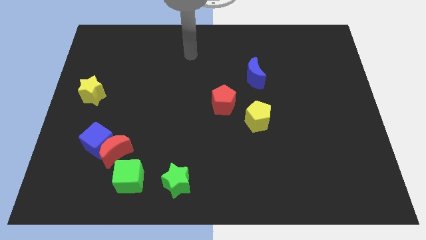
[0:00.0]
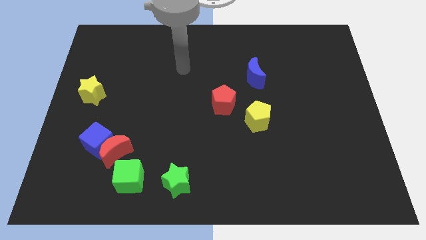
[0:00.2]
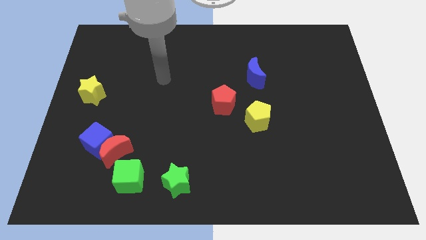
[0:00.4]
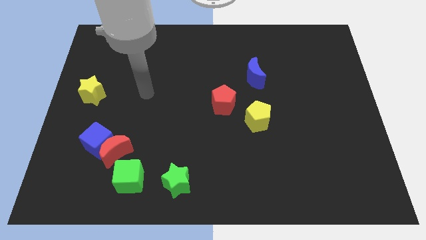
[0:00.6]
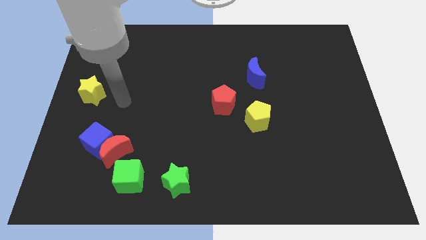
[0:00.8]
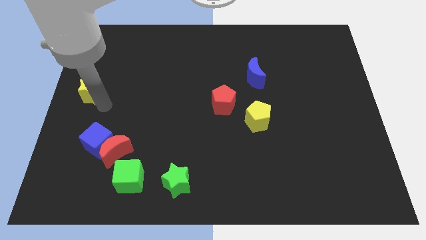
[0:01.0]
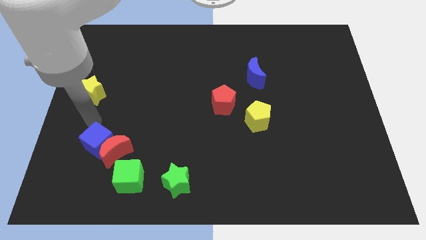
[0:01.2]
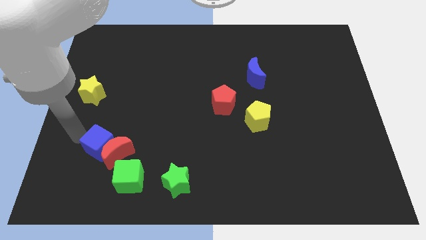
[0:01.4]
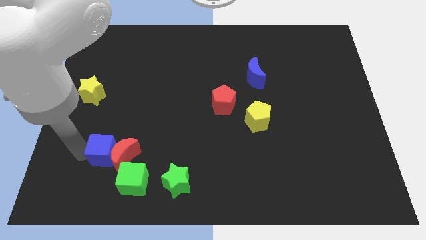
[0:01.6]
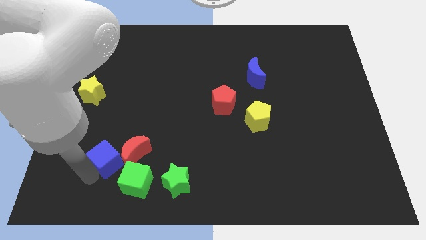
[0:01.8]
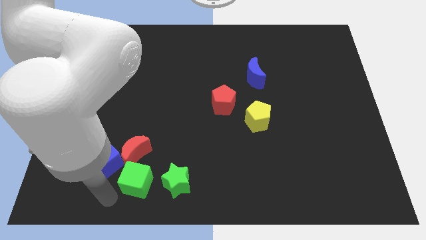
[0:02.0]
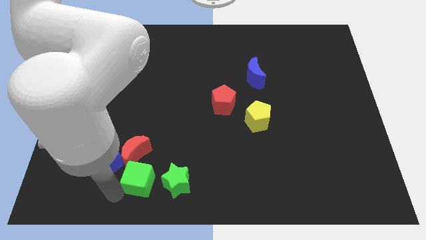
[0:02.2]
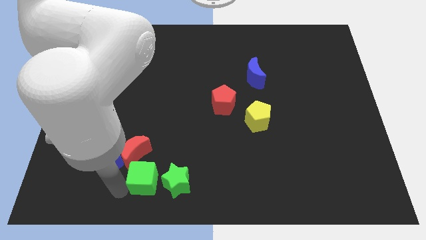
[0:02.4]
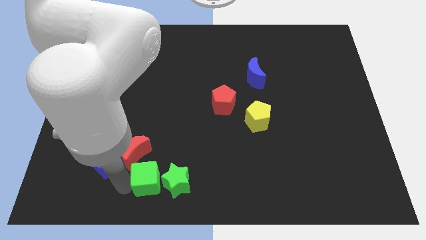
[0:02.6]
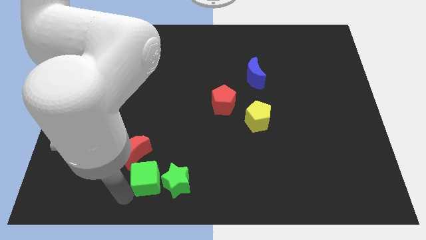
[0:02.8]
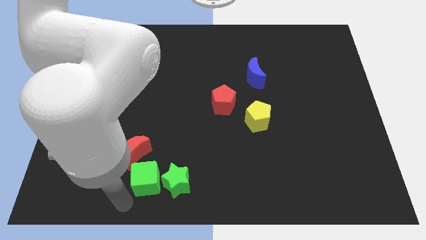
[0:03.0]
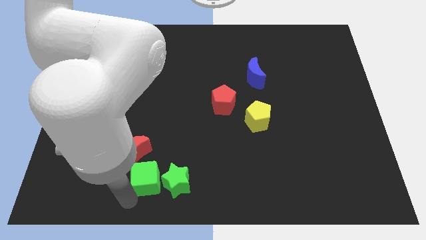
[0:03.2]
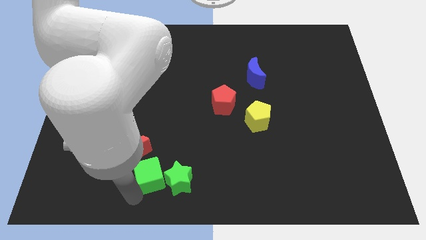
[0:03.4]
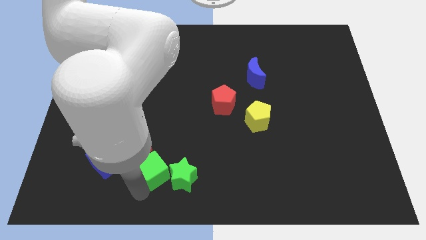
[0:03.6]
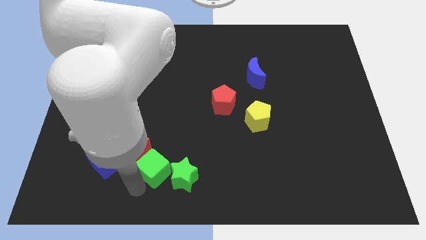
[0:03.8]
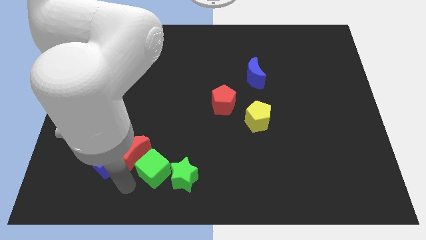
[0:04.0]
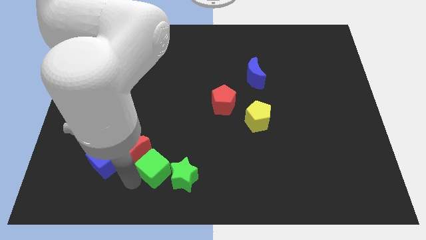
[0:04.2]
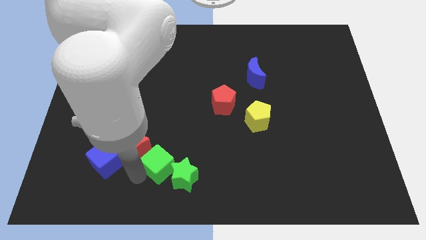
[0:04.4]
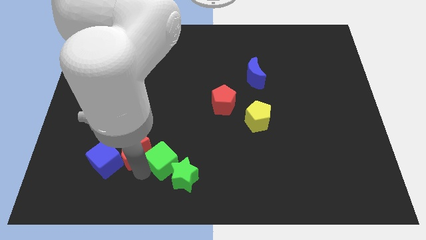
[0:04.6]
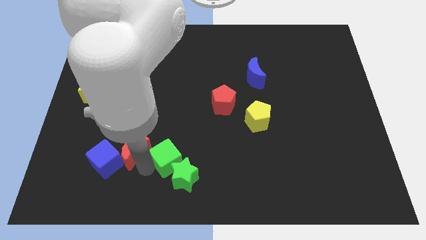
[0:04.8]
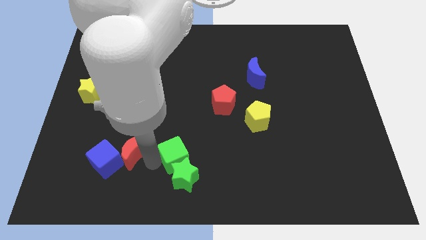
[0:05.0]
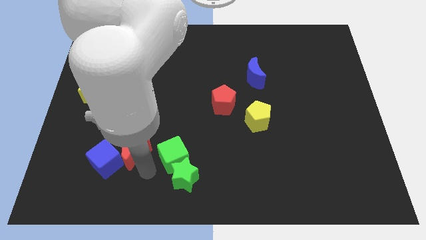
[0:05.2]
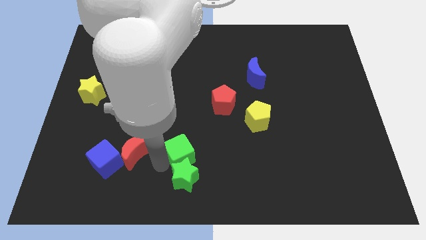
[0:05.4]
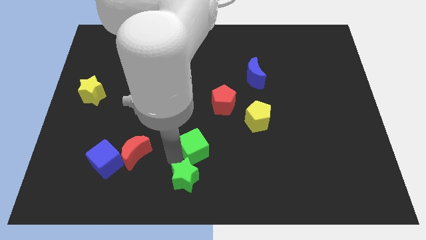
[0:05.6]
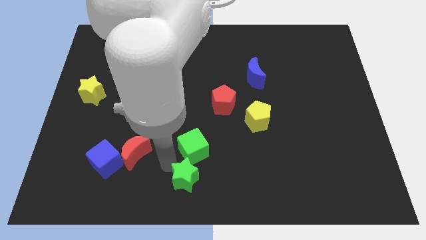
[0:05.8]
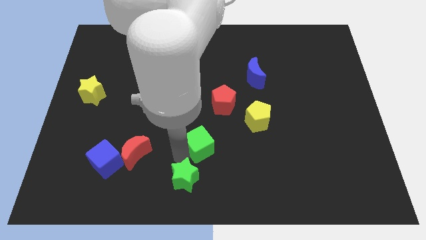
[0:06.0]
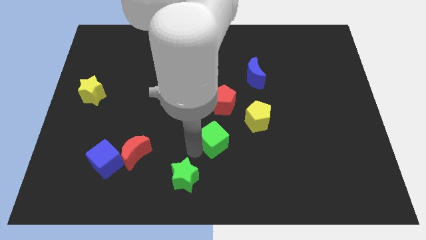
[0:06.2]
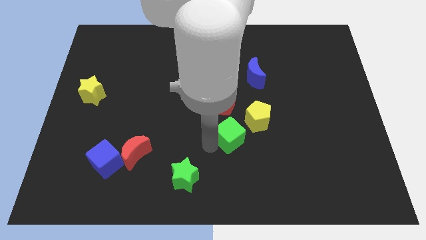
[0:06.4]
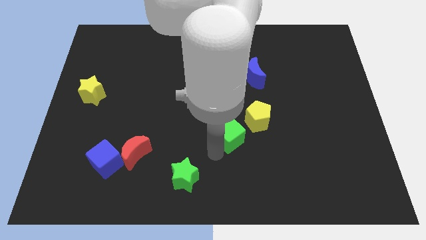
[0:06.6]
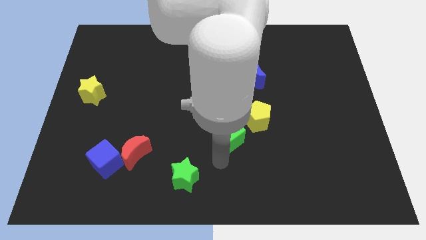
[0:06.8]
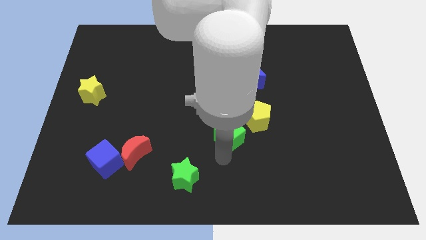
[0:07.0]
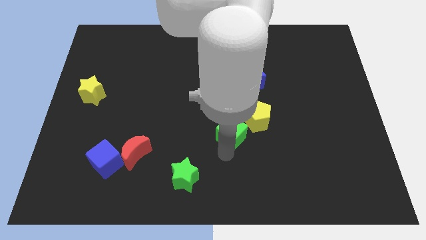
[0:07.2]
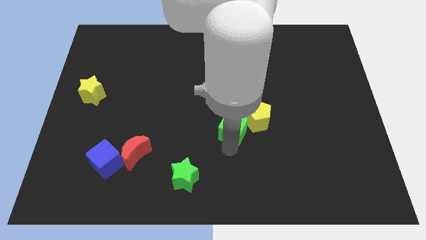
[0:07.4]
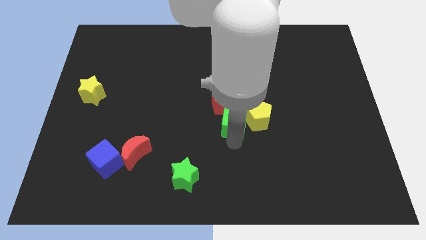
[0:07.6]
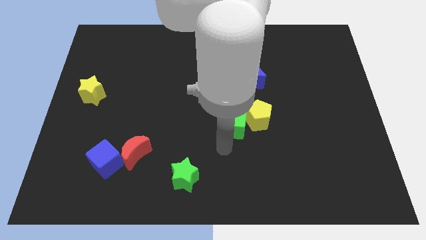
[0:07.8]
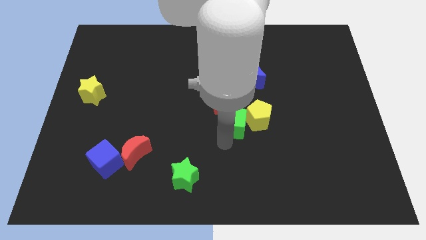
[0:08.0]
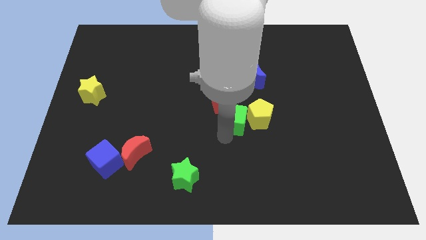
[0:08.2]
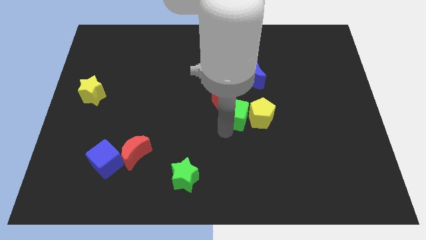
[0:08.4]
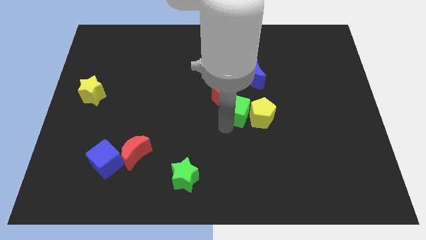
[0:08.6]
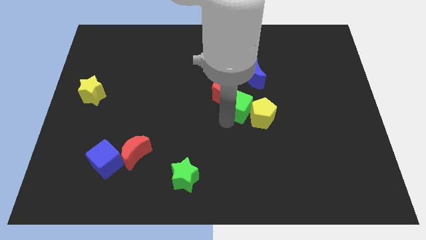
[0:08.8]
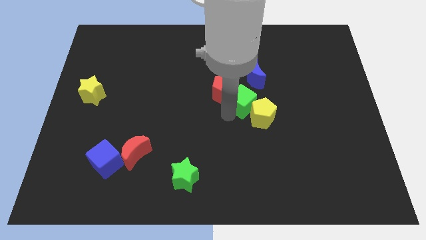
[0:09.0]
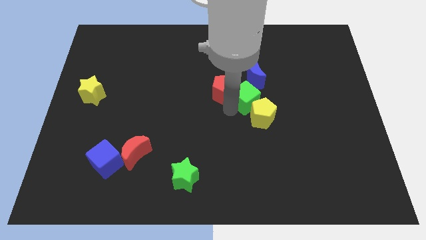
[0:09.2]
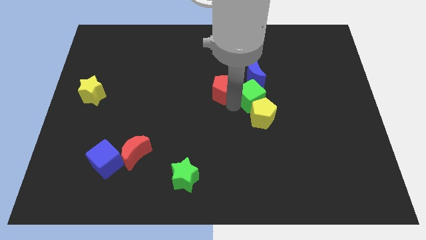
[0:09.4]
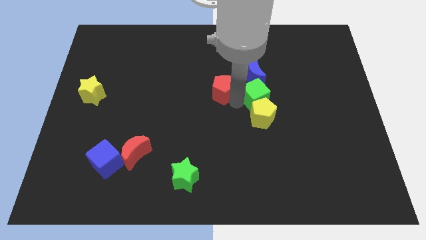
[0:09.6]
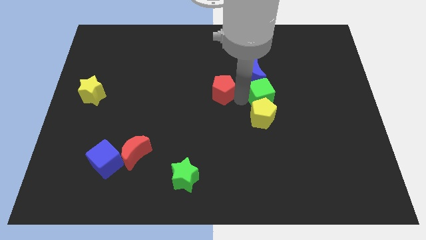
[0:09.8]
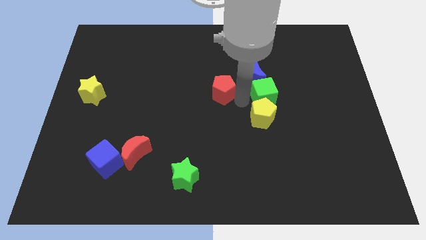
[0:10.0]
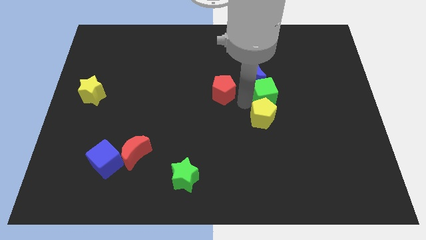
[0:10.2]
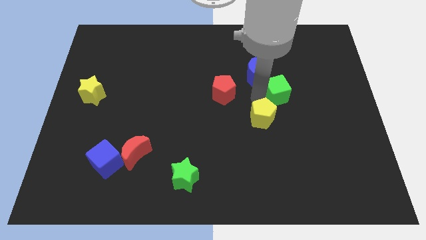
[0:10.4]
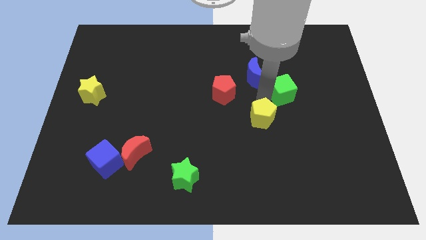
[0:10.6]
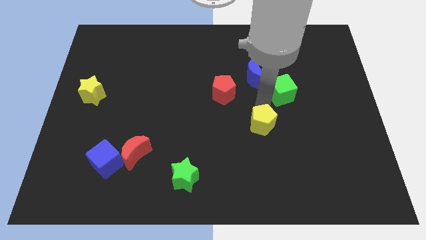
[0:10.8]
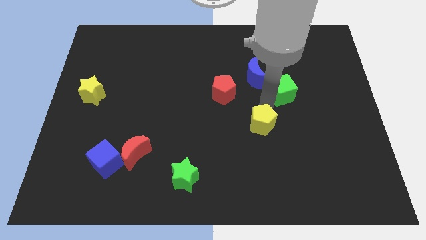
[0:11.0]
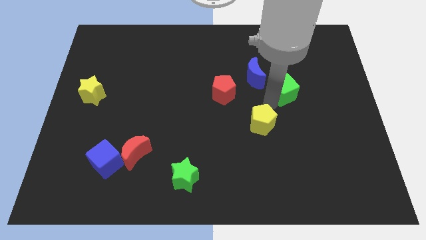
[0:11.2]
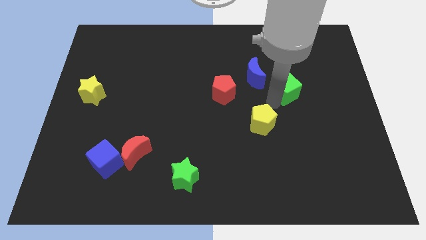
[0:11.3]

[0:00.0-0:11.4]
put the green cube just right of the blue moon

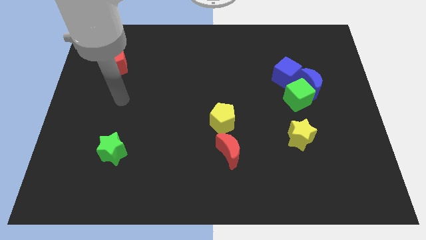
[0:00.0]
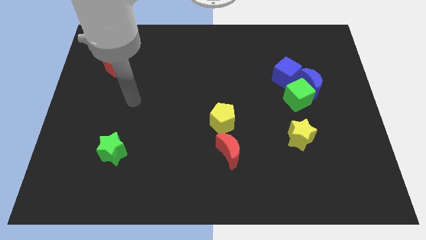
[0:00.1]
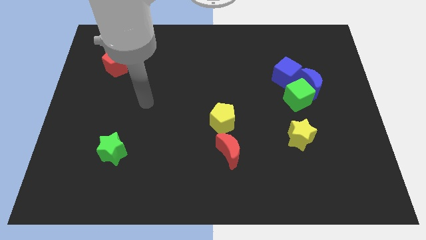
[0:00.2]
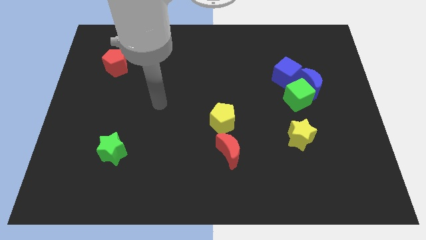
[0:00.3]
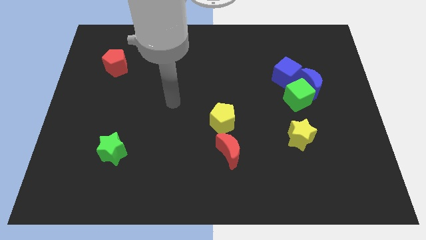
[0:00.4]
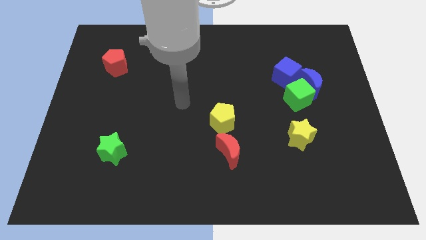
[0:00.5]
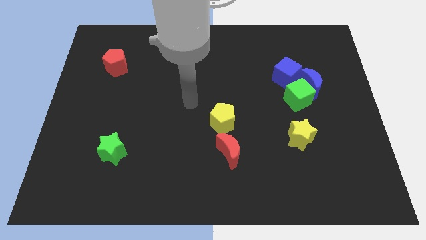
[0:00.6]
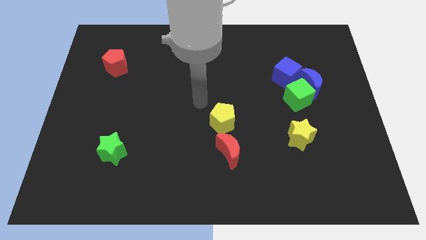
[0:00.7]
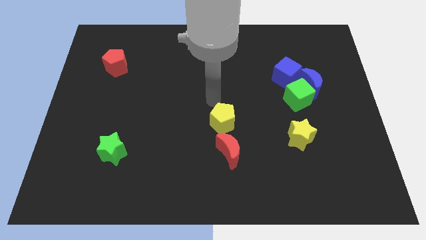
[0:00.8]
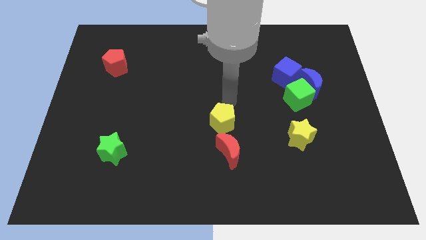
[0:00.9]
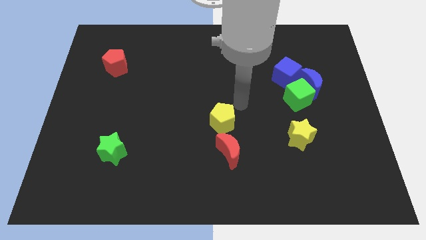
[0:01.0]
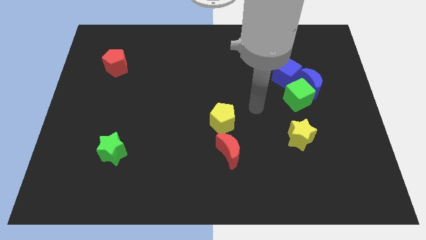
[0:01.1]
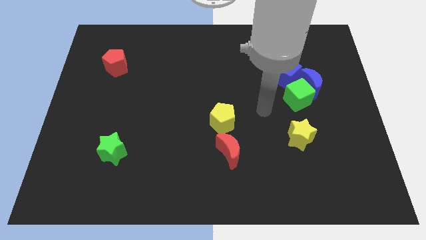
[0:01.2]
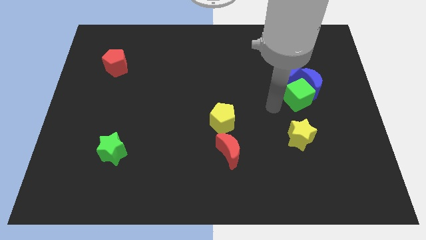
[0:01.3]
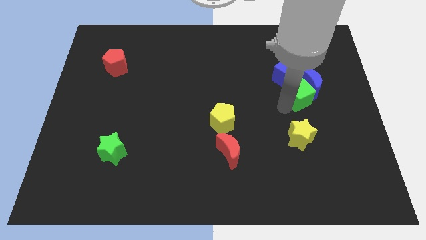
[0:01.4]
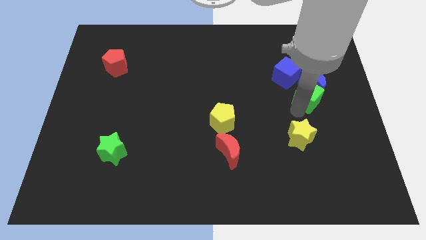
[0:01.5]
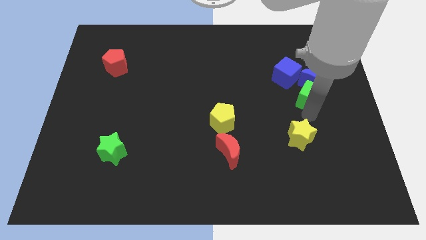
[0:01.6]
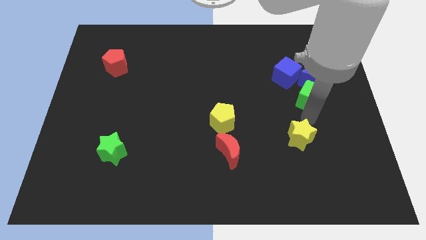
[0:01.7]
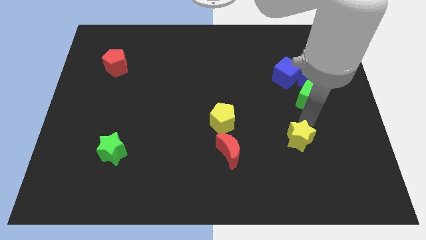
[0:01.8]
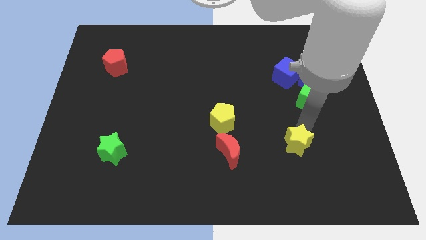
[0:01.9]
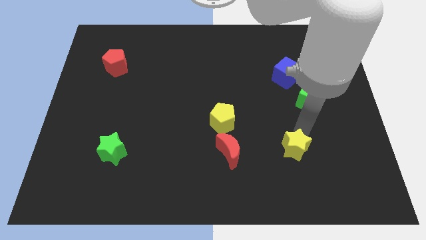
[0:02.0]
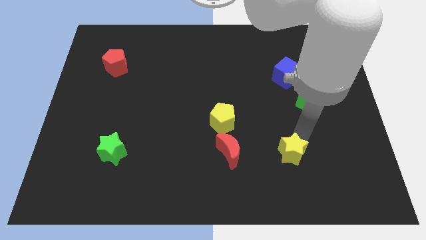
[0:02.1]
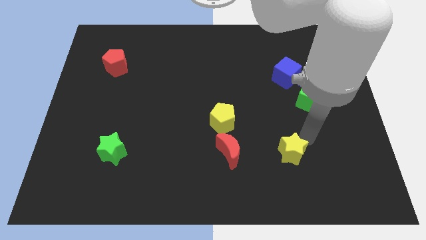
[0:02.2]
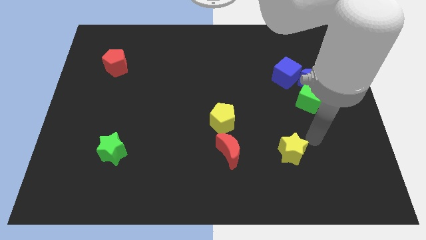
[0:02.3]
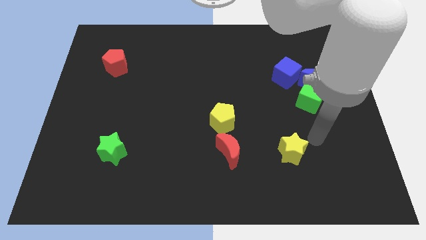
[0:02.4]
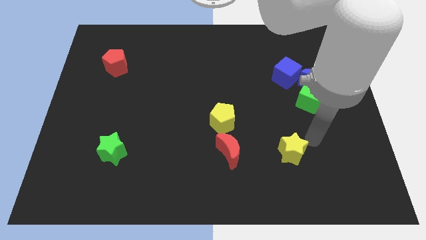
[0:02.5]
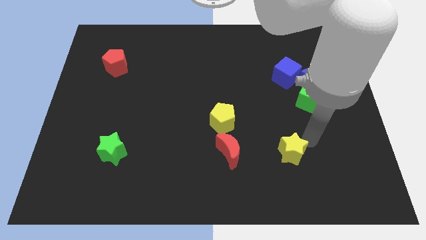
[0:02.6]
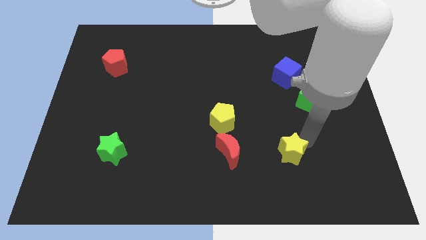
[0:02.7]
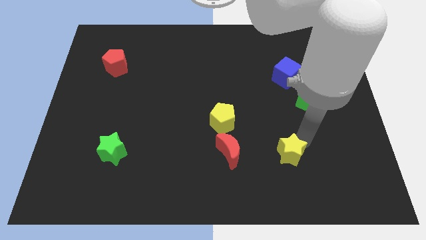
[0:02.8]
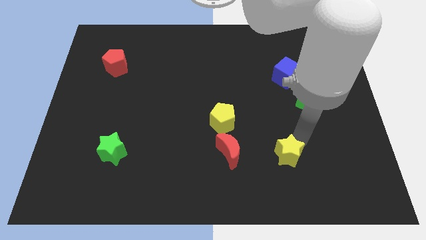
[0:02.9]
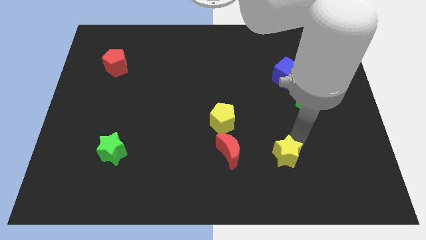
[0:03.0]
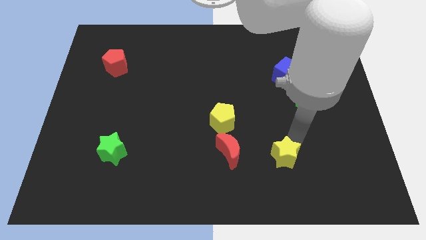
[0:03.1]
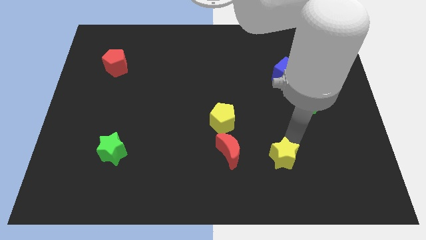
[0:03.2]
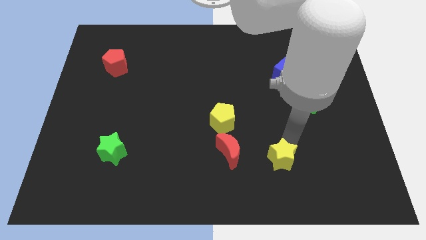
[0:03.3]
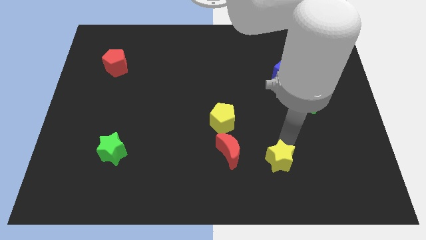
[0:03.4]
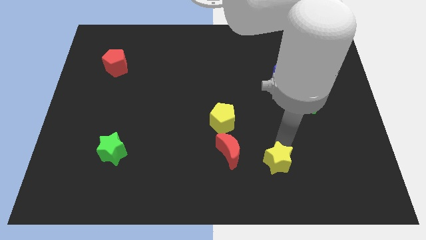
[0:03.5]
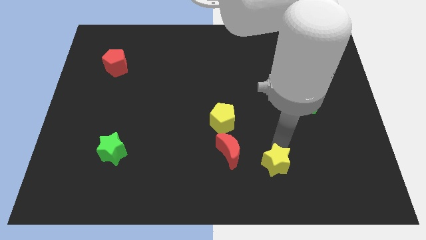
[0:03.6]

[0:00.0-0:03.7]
push the yellow star diagonally down and to the right of the red moon
